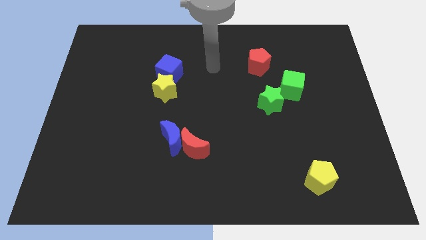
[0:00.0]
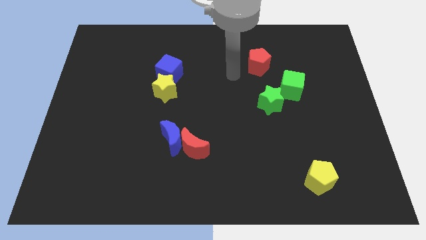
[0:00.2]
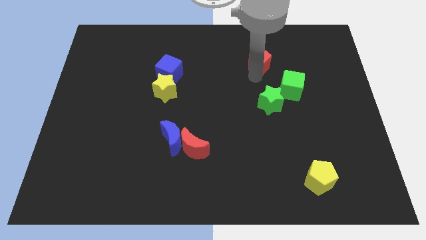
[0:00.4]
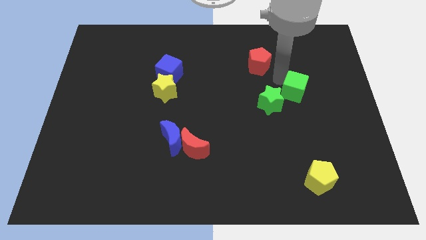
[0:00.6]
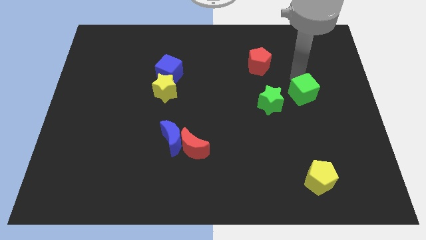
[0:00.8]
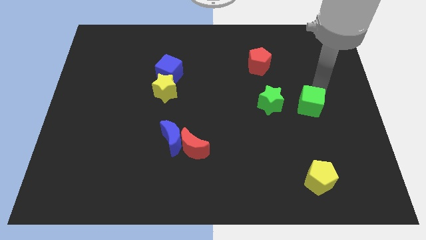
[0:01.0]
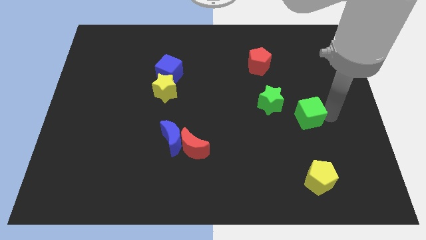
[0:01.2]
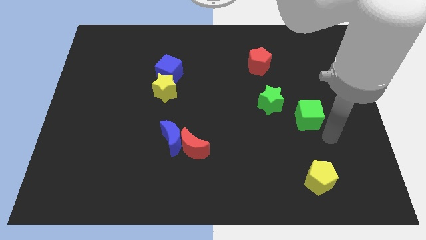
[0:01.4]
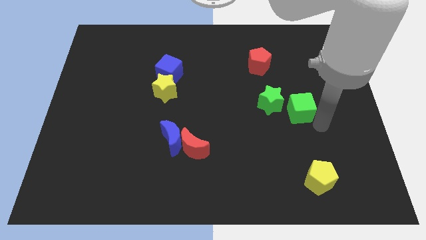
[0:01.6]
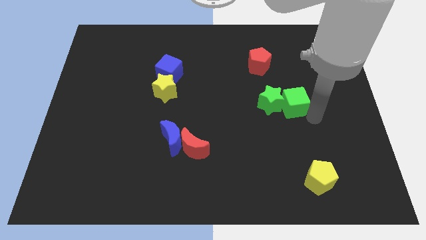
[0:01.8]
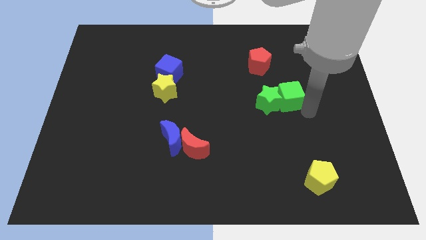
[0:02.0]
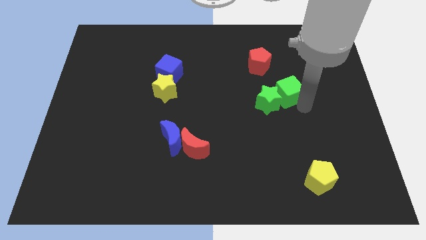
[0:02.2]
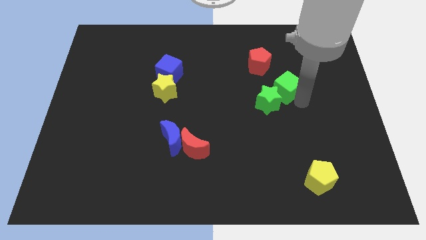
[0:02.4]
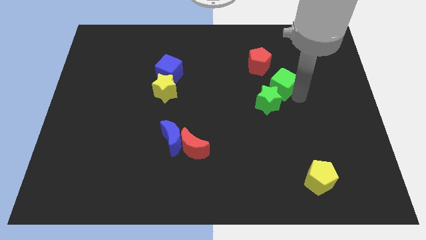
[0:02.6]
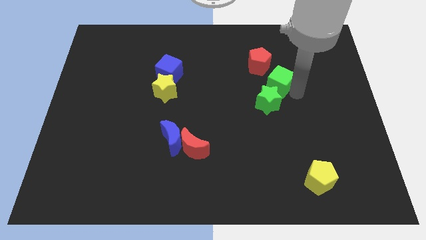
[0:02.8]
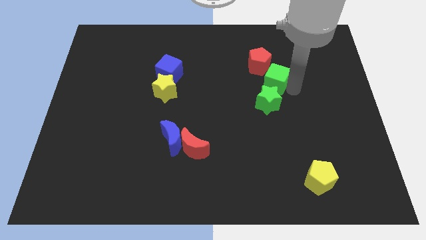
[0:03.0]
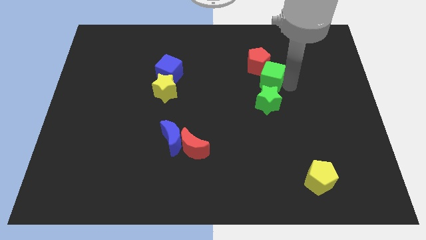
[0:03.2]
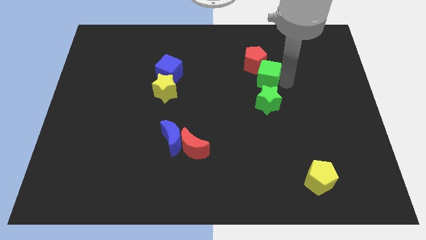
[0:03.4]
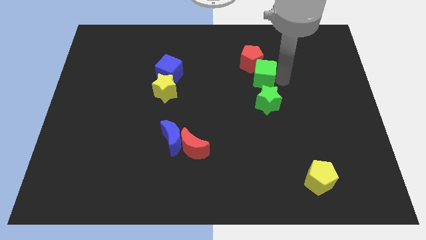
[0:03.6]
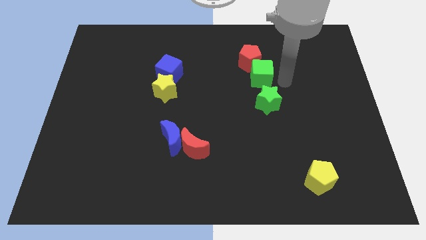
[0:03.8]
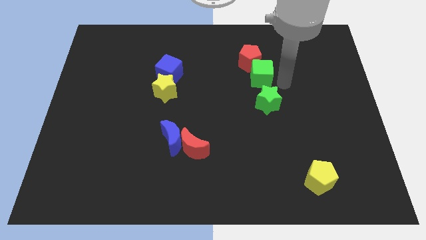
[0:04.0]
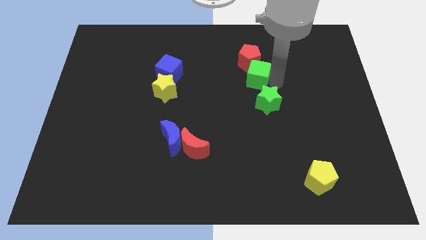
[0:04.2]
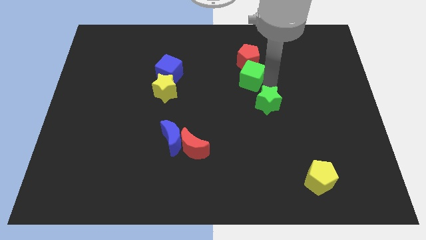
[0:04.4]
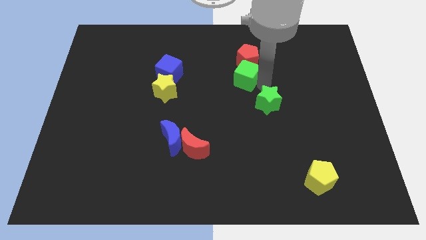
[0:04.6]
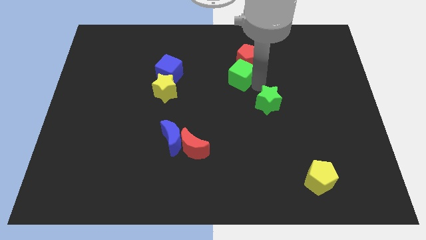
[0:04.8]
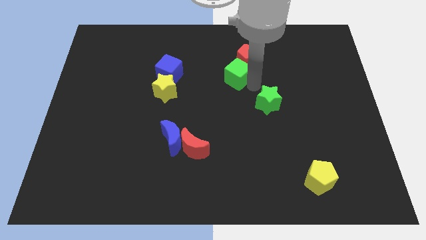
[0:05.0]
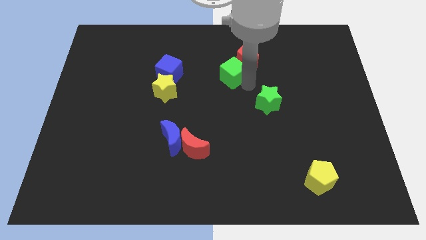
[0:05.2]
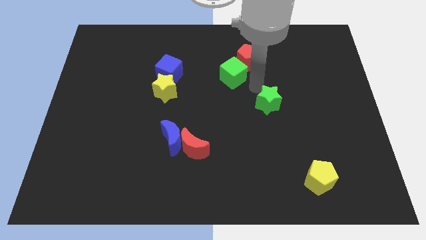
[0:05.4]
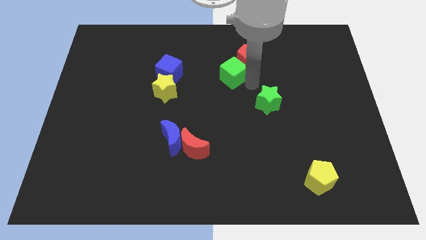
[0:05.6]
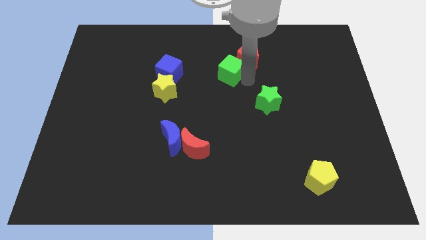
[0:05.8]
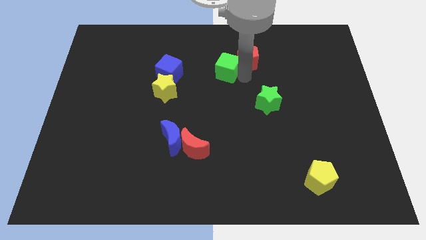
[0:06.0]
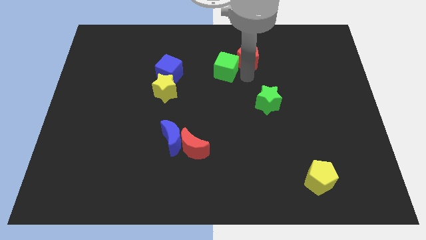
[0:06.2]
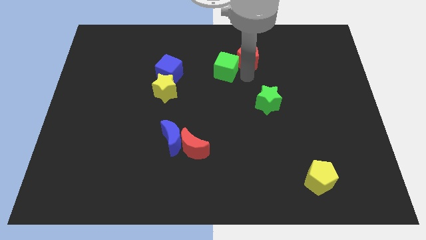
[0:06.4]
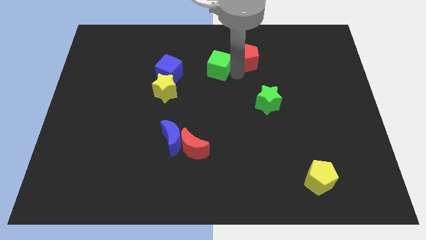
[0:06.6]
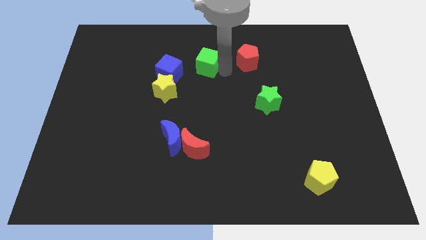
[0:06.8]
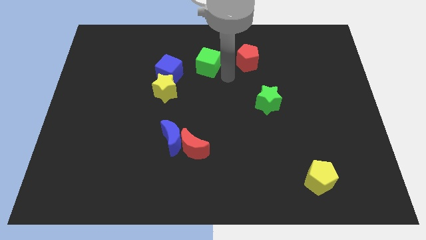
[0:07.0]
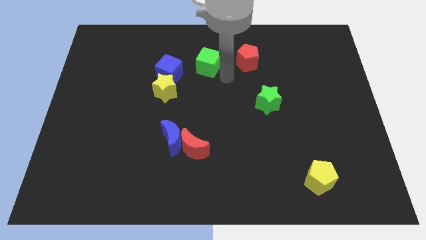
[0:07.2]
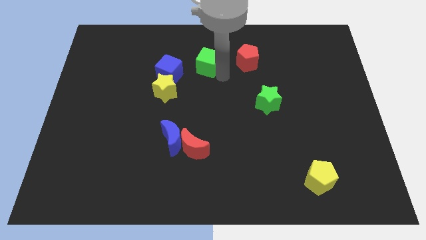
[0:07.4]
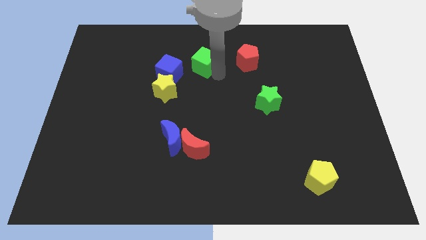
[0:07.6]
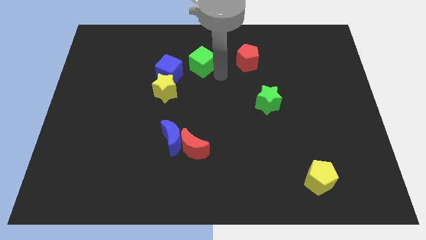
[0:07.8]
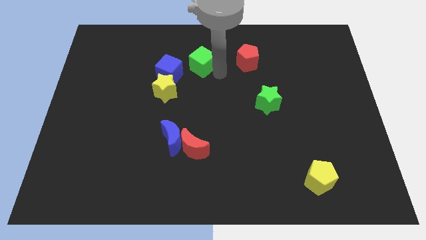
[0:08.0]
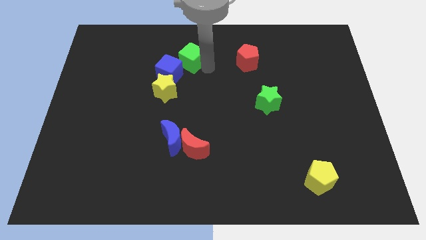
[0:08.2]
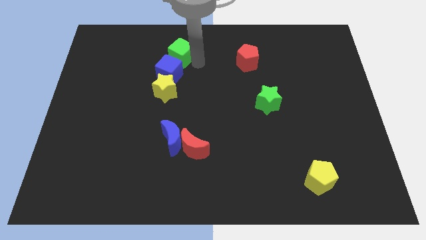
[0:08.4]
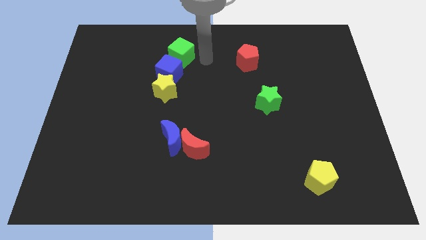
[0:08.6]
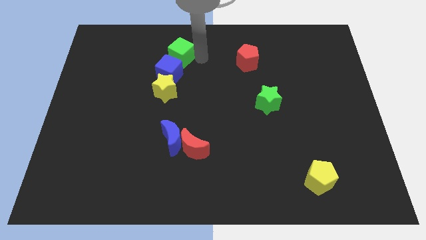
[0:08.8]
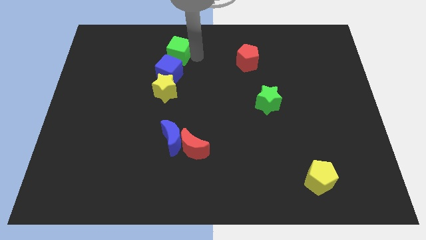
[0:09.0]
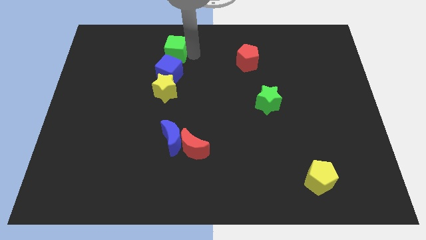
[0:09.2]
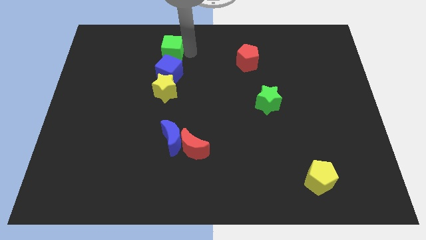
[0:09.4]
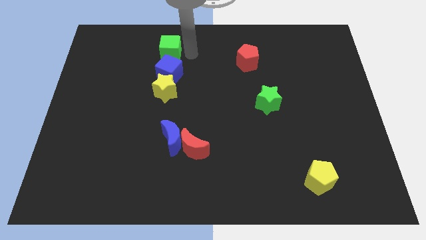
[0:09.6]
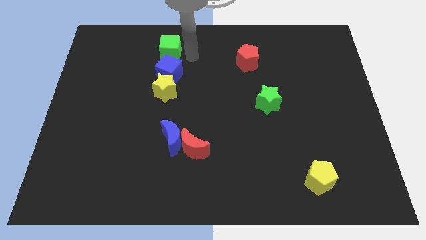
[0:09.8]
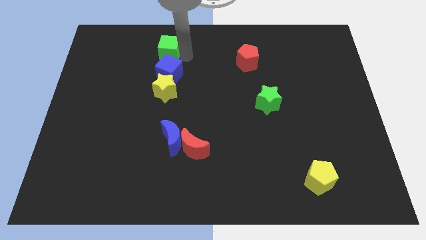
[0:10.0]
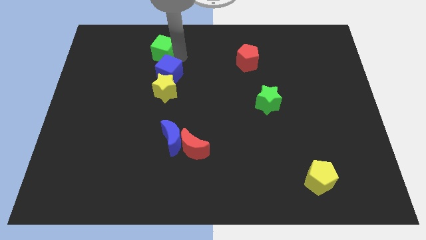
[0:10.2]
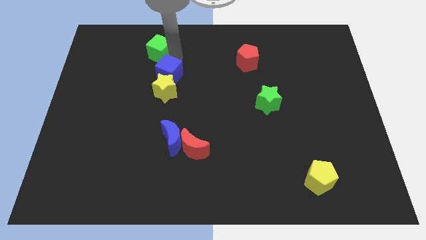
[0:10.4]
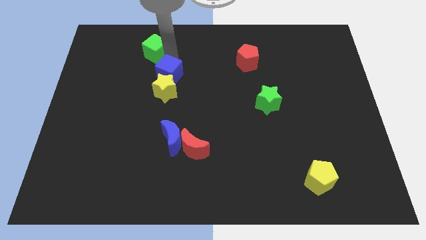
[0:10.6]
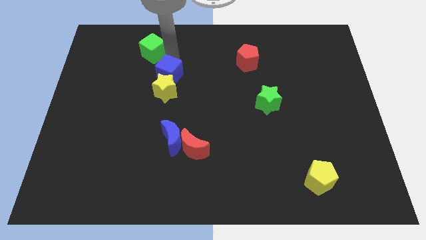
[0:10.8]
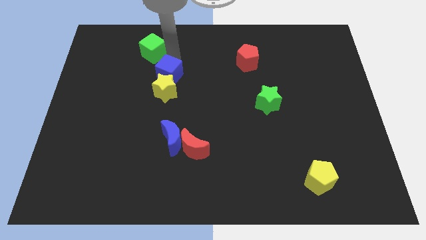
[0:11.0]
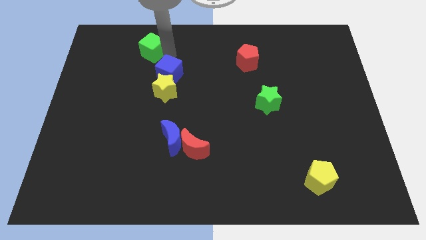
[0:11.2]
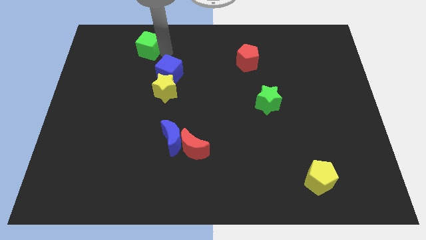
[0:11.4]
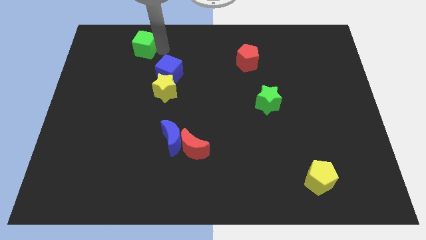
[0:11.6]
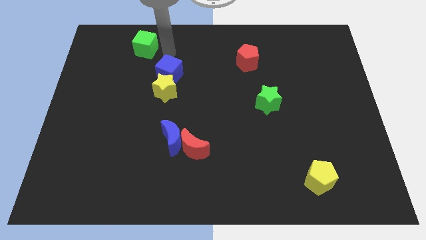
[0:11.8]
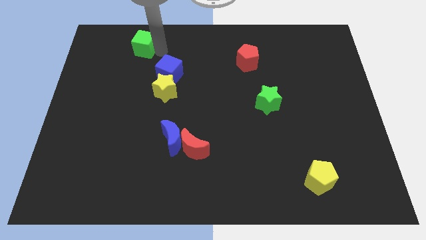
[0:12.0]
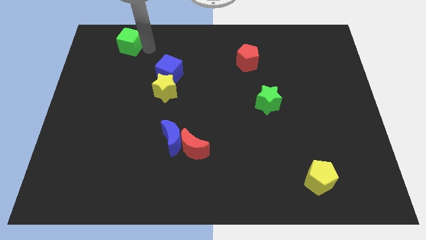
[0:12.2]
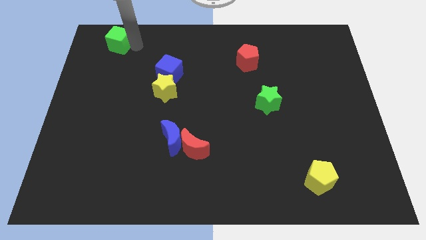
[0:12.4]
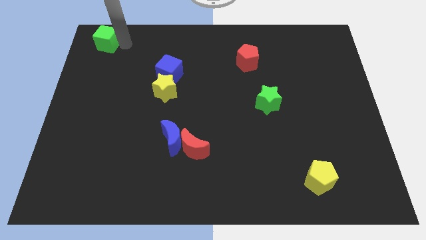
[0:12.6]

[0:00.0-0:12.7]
move the green cube to the upper left corner
